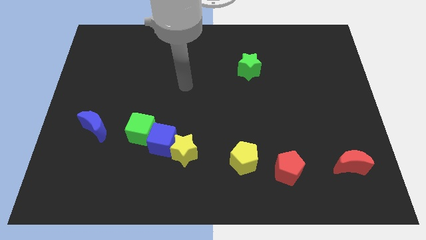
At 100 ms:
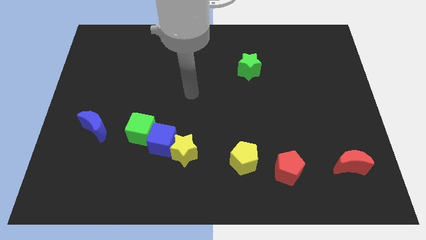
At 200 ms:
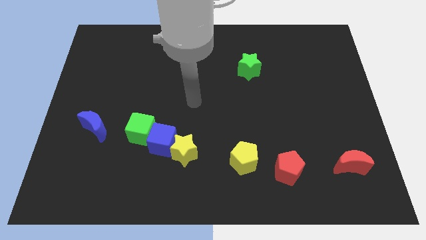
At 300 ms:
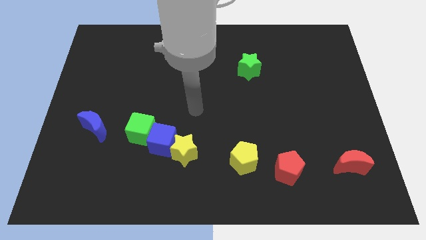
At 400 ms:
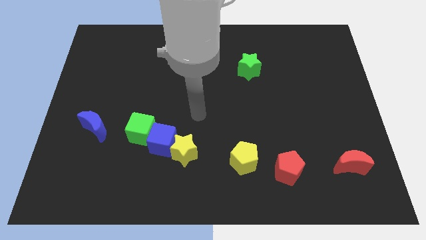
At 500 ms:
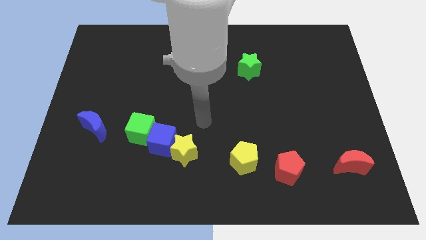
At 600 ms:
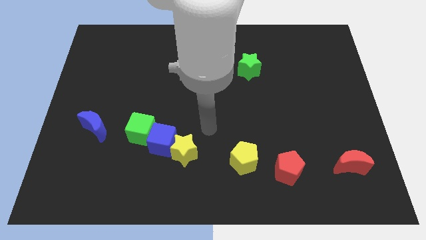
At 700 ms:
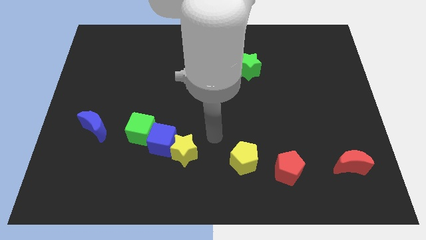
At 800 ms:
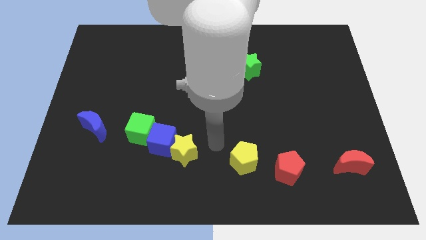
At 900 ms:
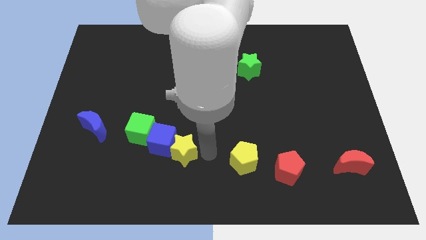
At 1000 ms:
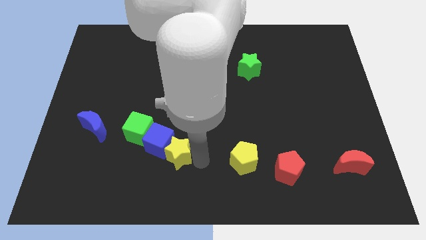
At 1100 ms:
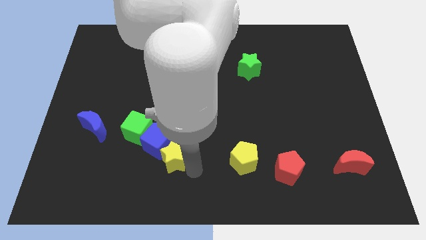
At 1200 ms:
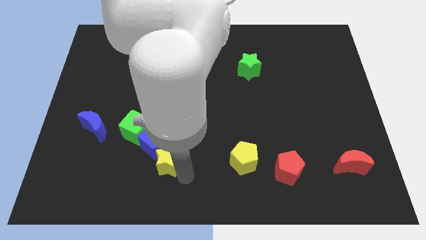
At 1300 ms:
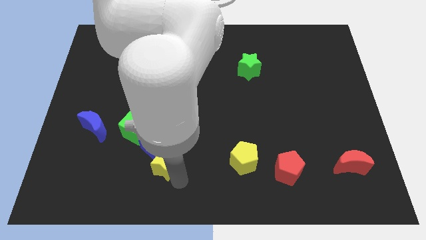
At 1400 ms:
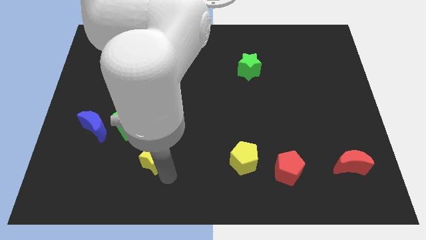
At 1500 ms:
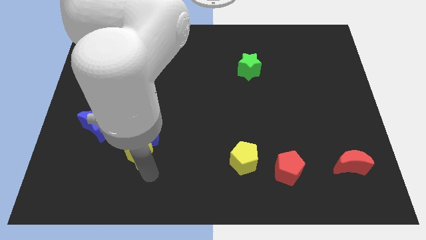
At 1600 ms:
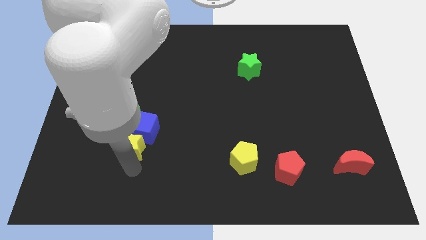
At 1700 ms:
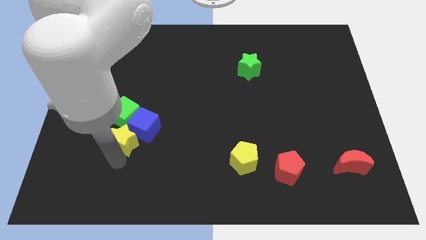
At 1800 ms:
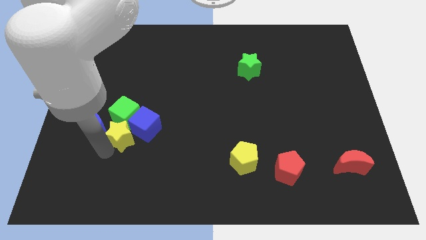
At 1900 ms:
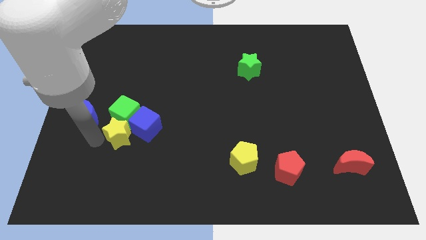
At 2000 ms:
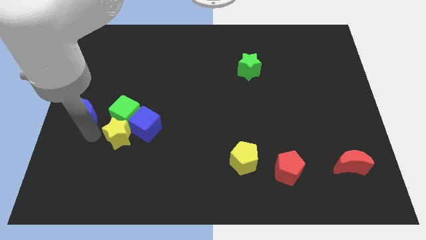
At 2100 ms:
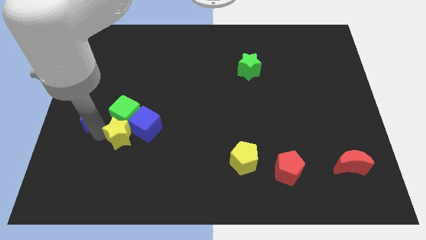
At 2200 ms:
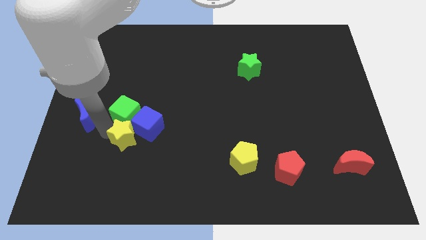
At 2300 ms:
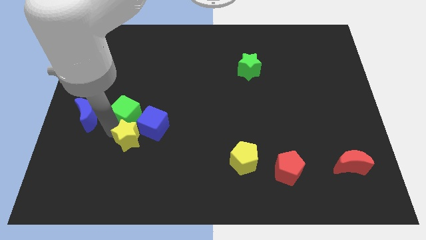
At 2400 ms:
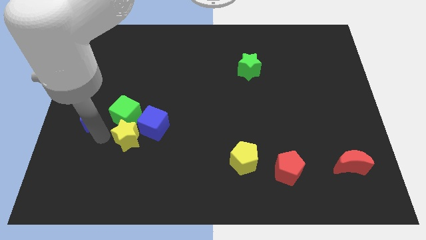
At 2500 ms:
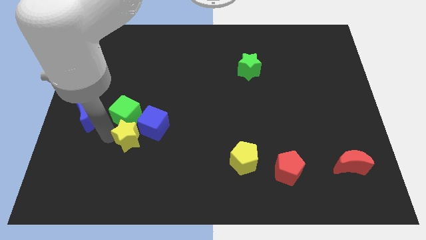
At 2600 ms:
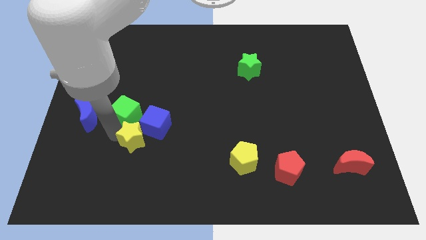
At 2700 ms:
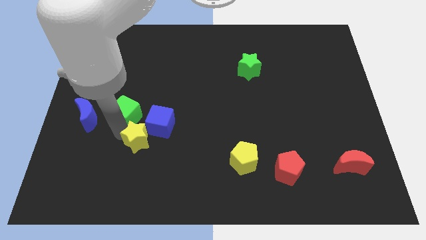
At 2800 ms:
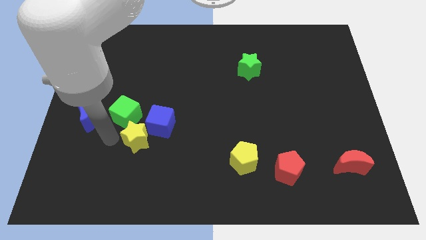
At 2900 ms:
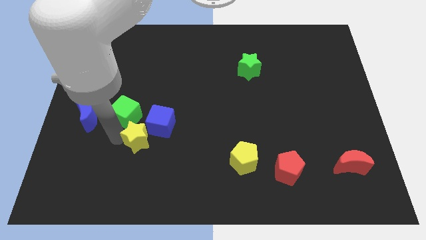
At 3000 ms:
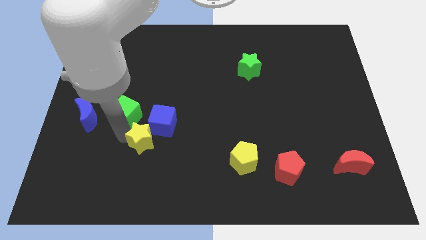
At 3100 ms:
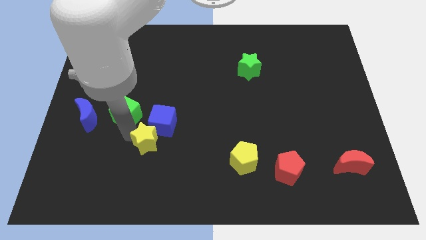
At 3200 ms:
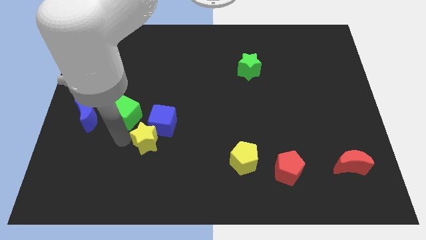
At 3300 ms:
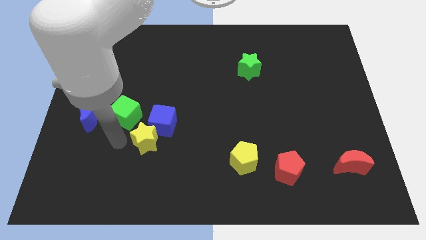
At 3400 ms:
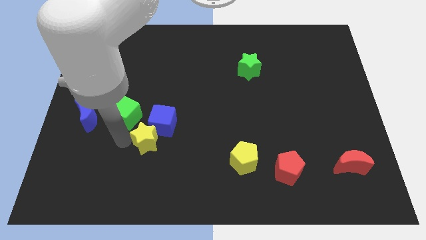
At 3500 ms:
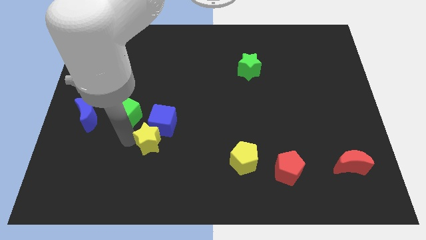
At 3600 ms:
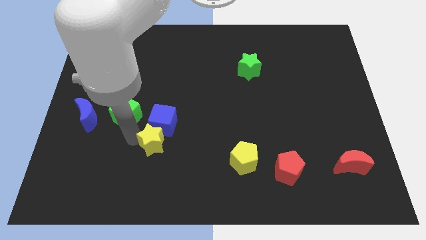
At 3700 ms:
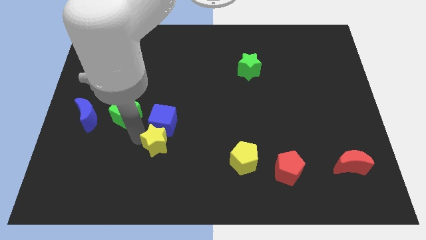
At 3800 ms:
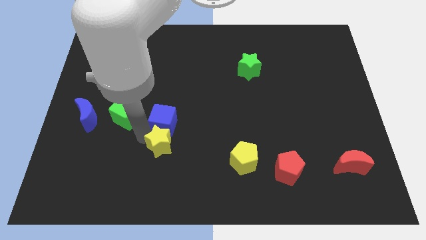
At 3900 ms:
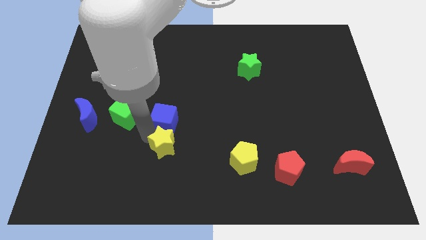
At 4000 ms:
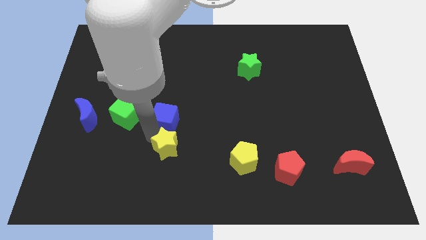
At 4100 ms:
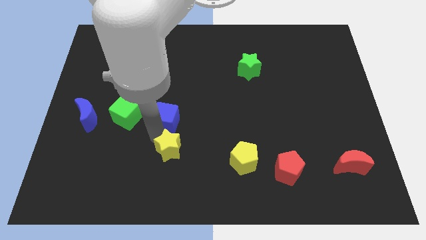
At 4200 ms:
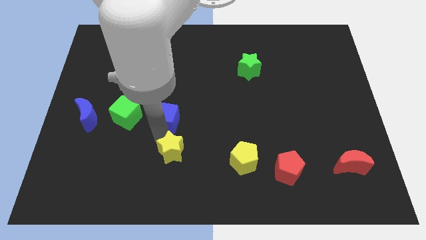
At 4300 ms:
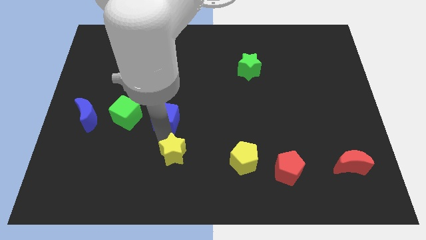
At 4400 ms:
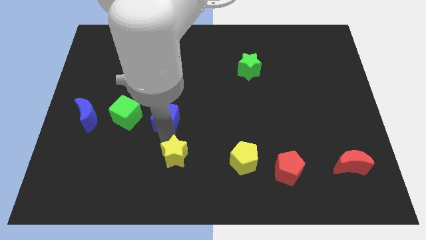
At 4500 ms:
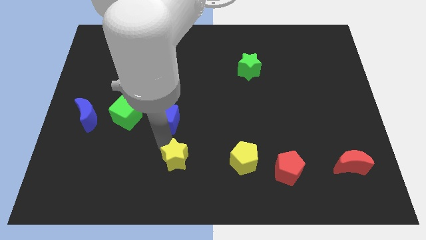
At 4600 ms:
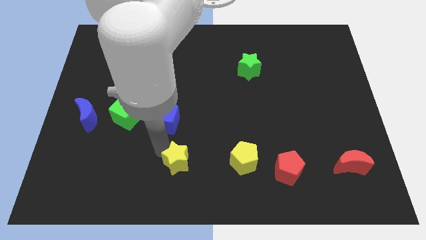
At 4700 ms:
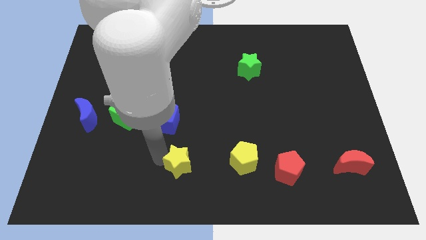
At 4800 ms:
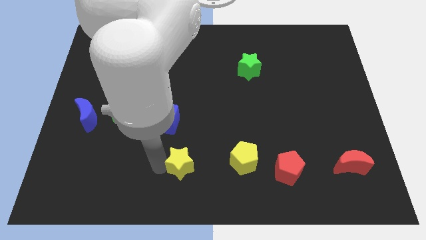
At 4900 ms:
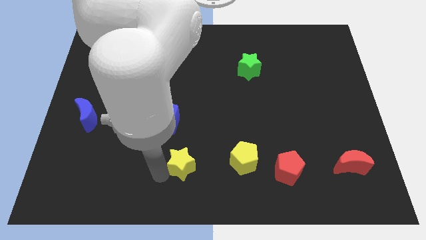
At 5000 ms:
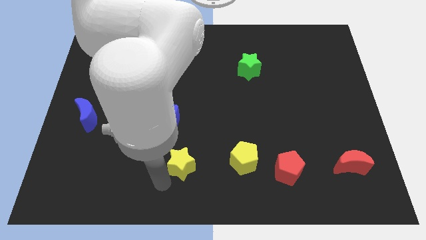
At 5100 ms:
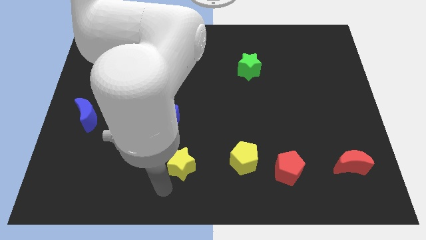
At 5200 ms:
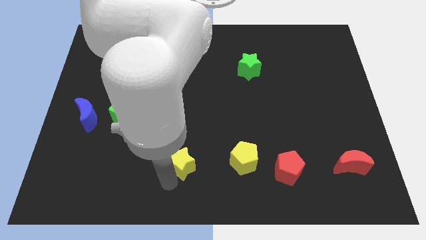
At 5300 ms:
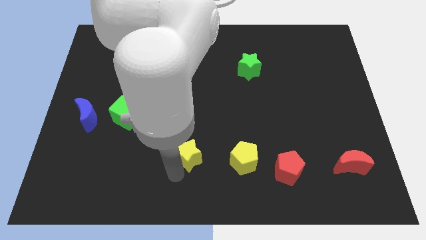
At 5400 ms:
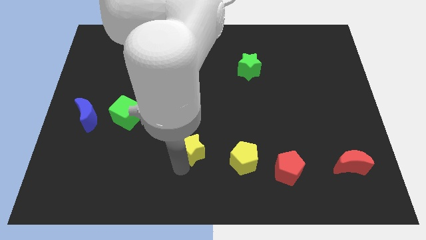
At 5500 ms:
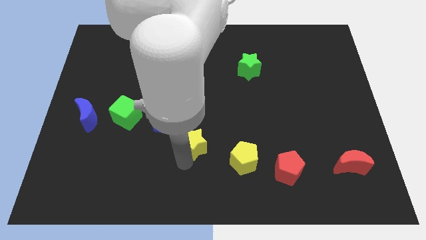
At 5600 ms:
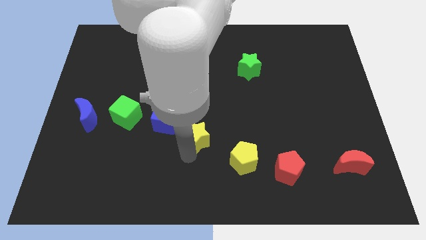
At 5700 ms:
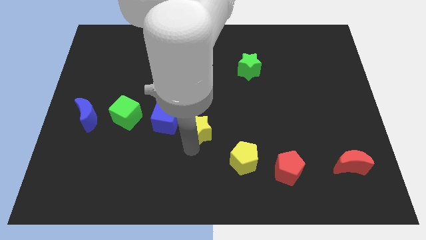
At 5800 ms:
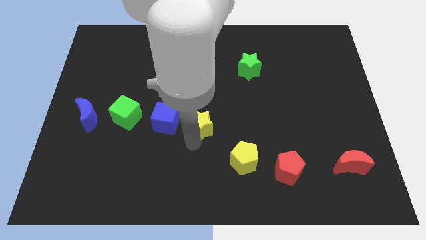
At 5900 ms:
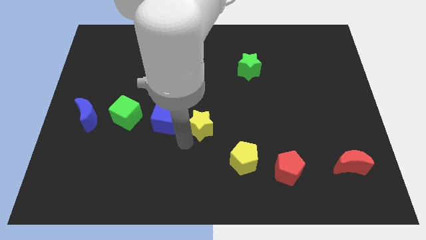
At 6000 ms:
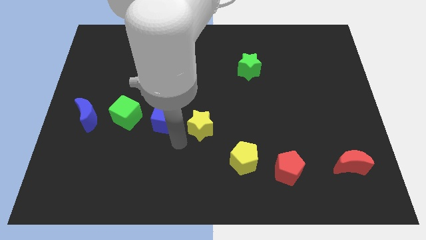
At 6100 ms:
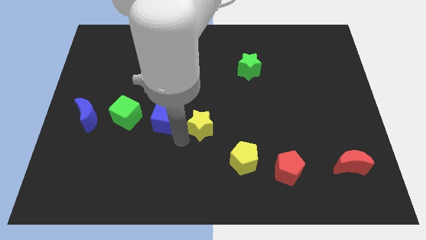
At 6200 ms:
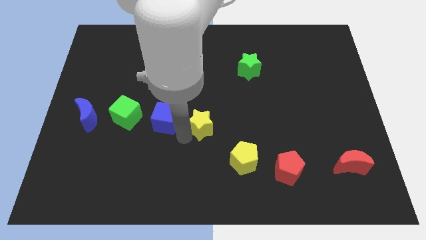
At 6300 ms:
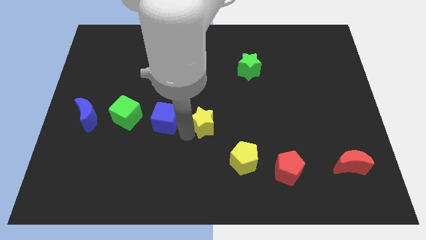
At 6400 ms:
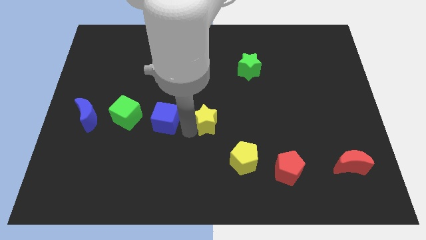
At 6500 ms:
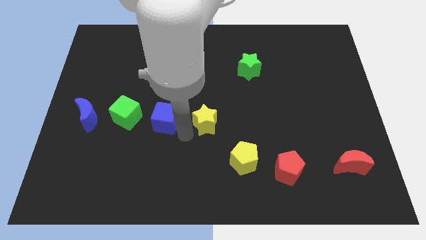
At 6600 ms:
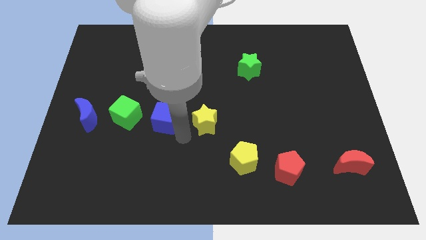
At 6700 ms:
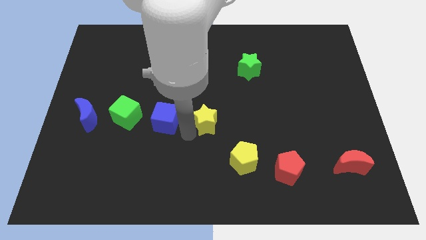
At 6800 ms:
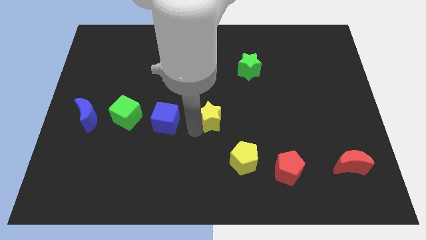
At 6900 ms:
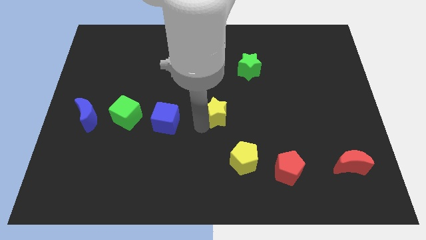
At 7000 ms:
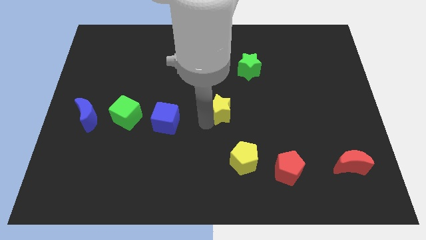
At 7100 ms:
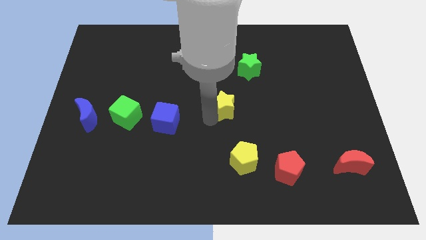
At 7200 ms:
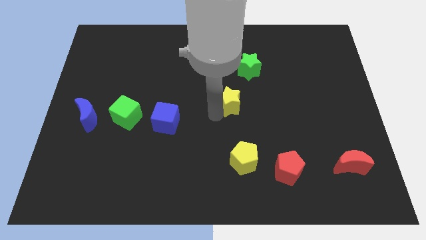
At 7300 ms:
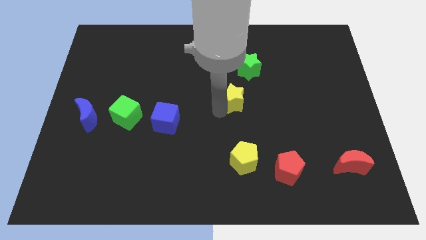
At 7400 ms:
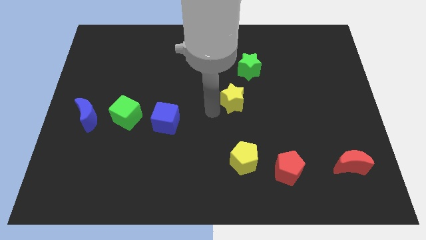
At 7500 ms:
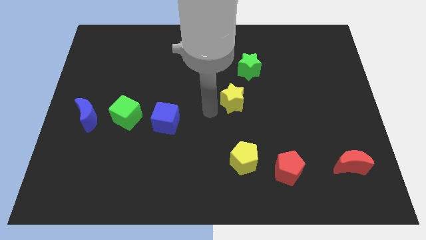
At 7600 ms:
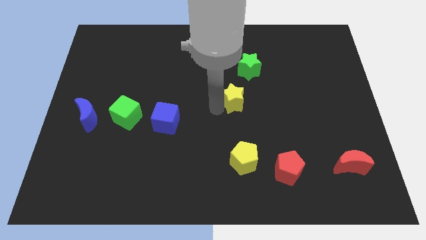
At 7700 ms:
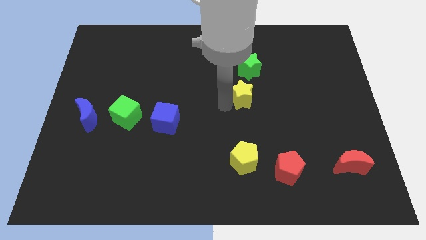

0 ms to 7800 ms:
move the yellow star upwards and to the right diagonally

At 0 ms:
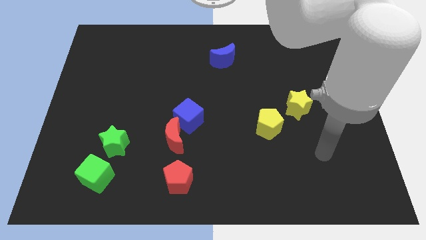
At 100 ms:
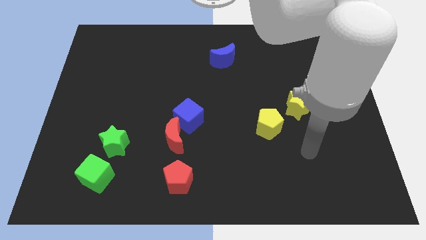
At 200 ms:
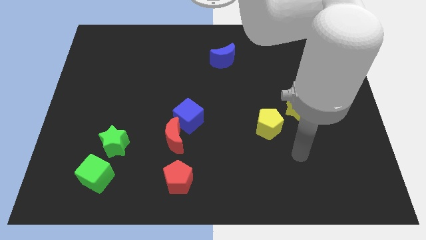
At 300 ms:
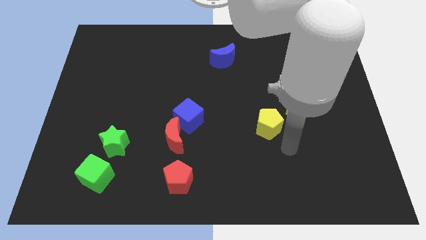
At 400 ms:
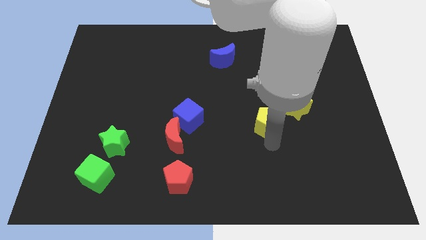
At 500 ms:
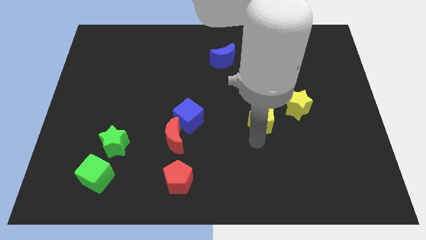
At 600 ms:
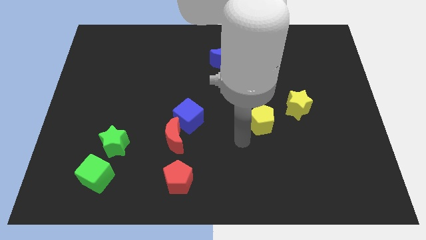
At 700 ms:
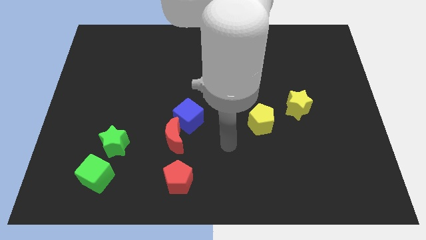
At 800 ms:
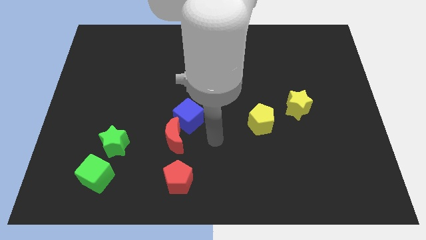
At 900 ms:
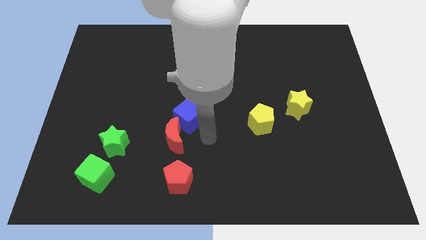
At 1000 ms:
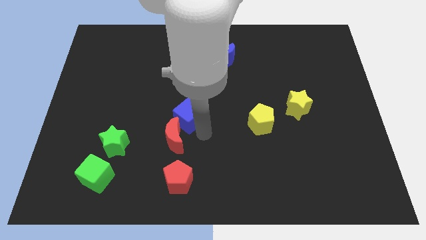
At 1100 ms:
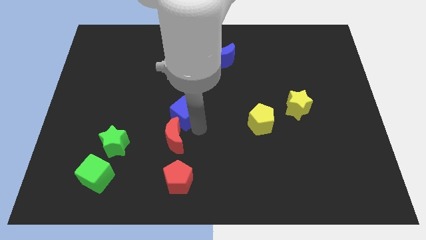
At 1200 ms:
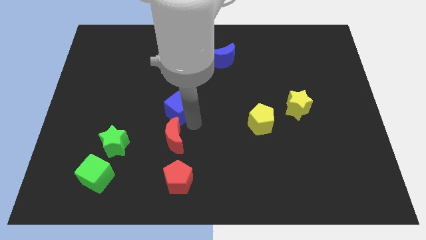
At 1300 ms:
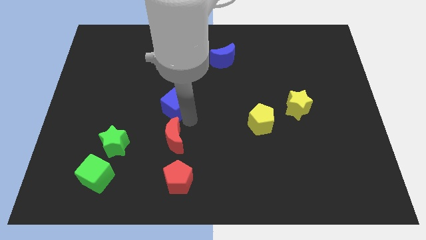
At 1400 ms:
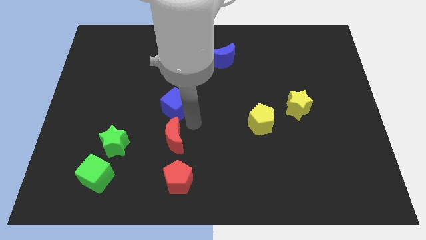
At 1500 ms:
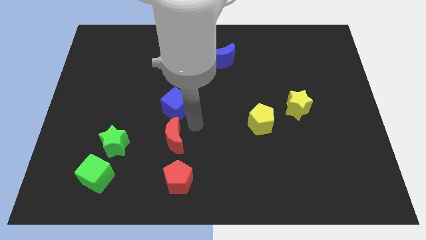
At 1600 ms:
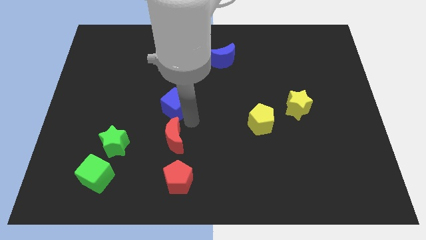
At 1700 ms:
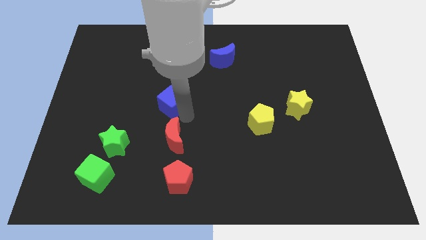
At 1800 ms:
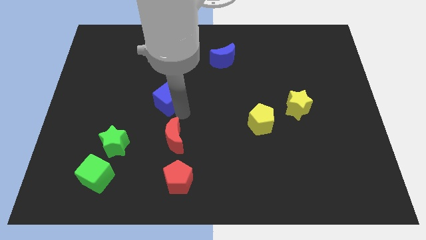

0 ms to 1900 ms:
push the blue cube upwards and then to the left slightly
